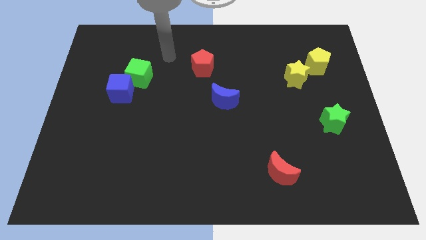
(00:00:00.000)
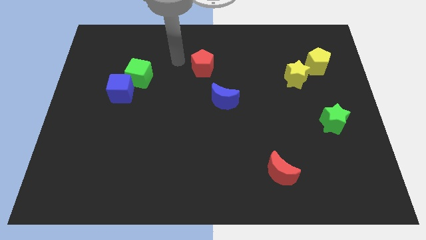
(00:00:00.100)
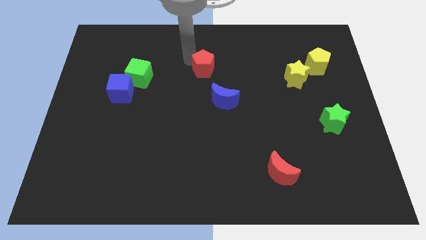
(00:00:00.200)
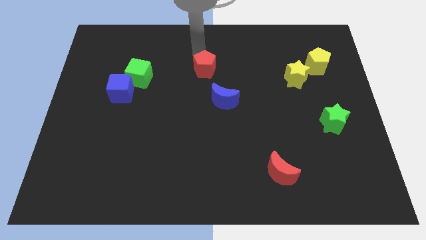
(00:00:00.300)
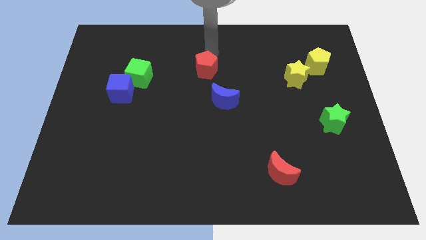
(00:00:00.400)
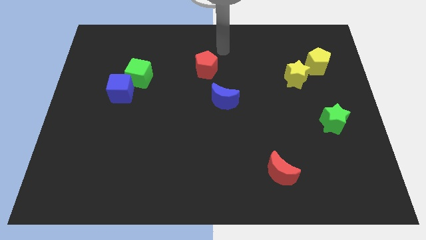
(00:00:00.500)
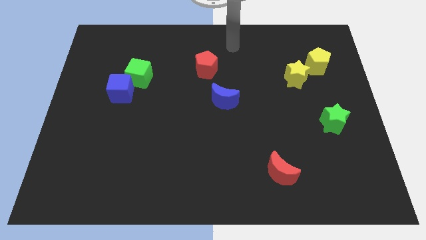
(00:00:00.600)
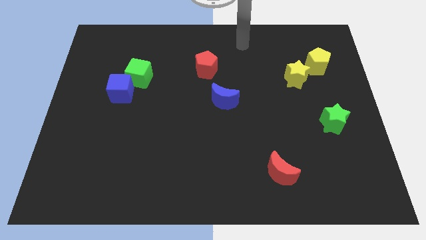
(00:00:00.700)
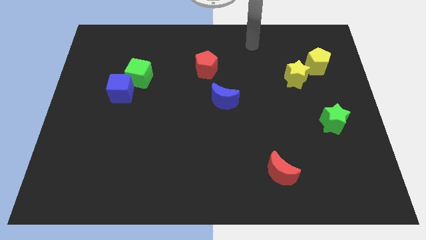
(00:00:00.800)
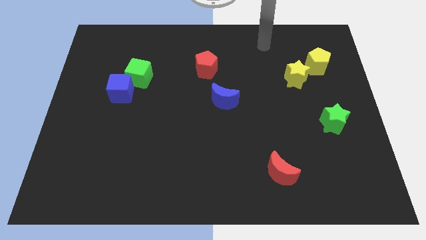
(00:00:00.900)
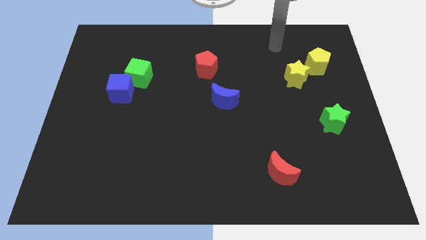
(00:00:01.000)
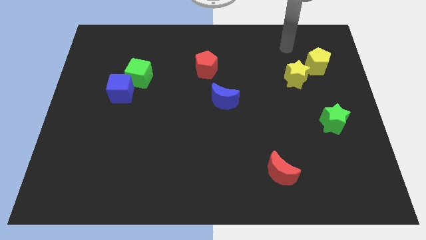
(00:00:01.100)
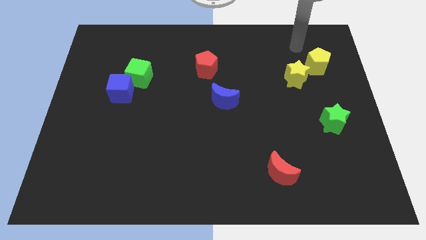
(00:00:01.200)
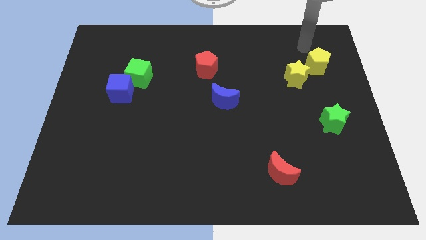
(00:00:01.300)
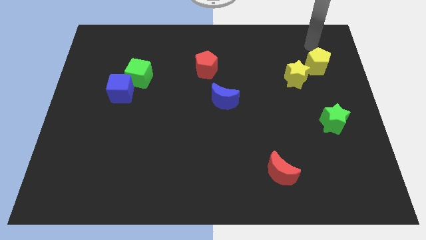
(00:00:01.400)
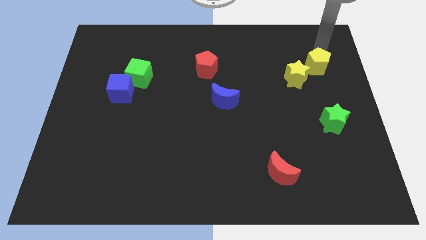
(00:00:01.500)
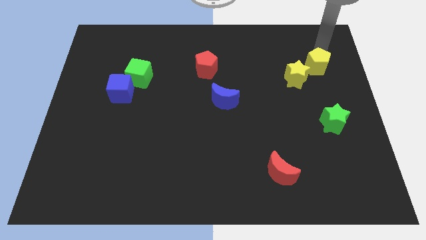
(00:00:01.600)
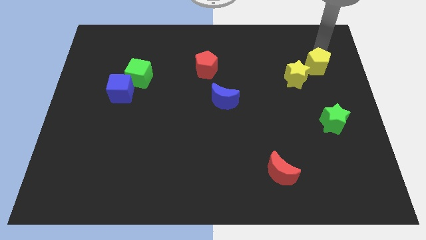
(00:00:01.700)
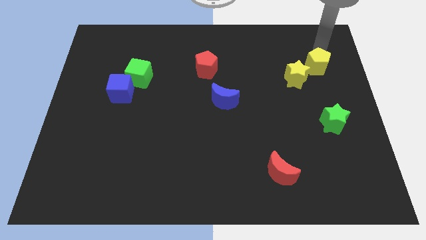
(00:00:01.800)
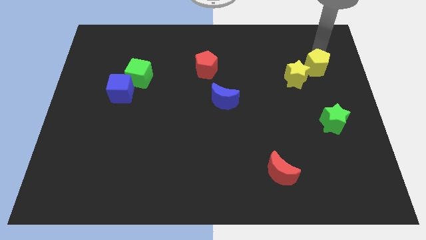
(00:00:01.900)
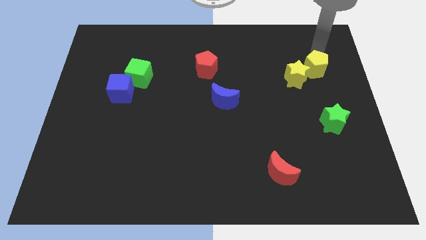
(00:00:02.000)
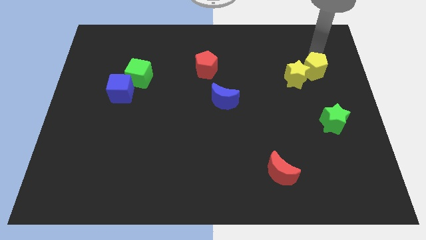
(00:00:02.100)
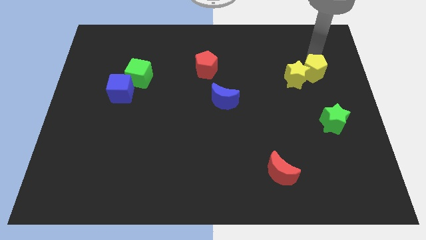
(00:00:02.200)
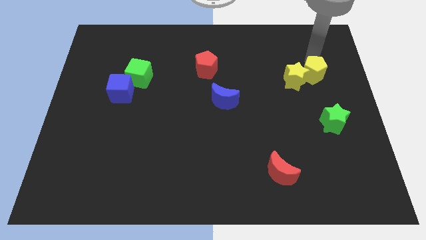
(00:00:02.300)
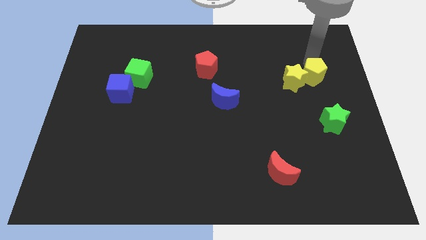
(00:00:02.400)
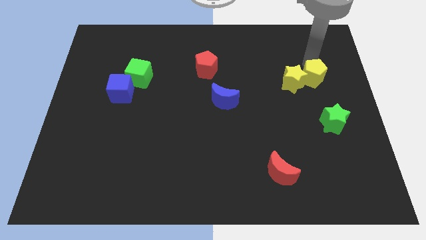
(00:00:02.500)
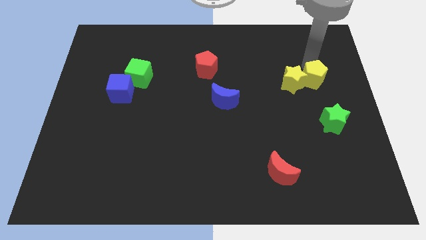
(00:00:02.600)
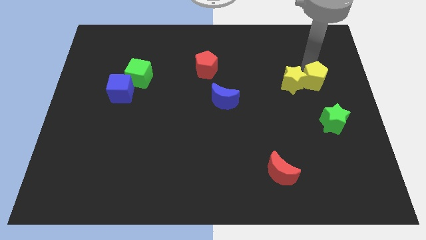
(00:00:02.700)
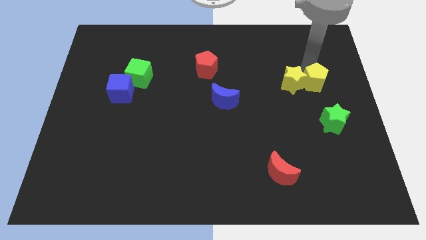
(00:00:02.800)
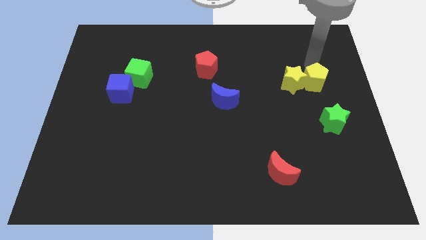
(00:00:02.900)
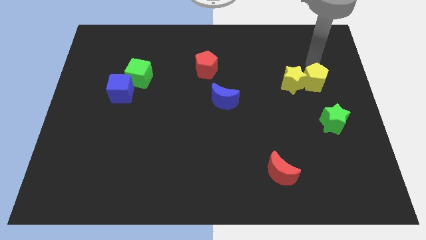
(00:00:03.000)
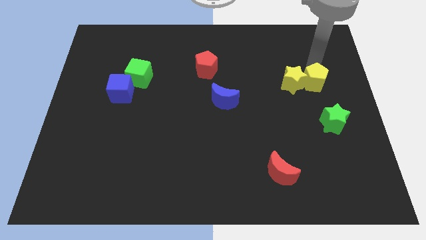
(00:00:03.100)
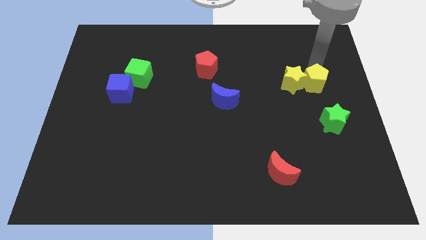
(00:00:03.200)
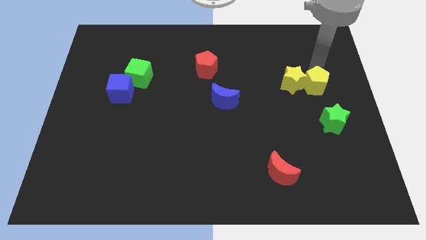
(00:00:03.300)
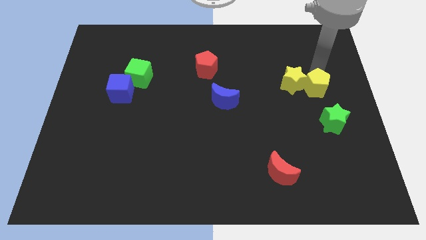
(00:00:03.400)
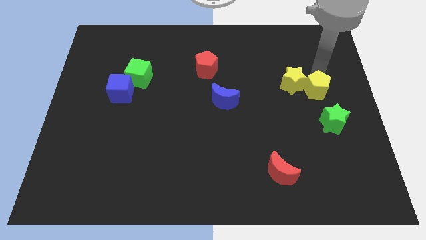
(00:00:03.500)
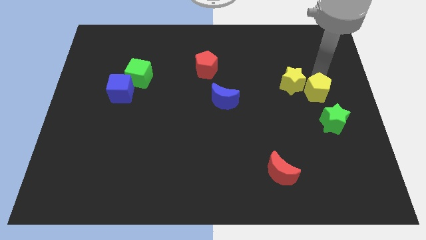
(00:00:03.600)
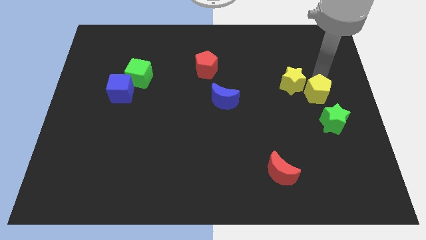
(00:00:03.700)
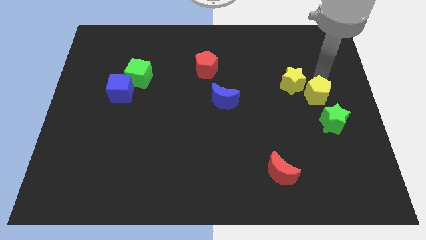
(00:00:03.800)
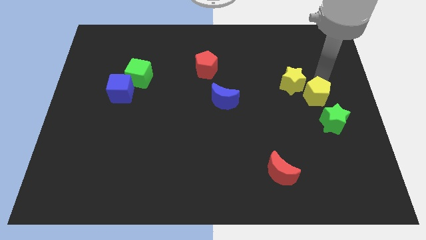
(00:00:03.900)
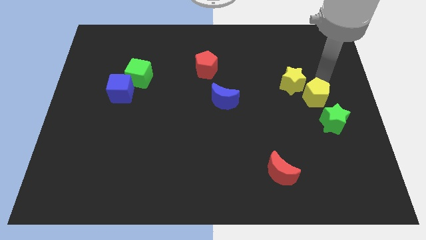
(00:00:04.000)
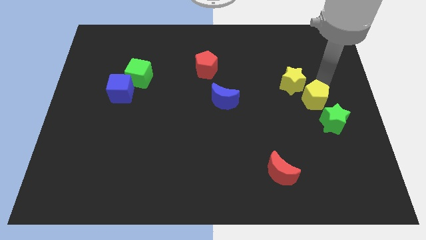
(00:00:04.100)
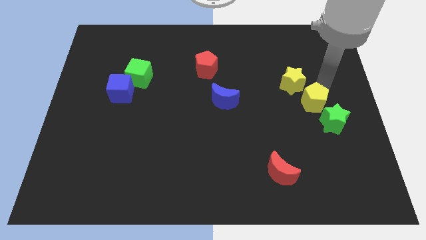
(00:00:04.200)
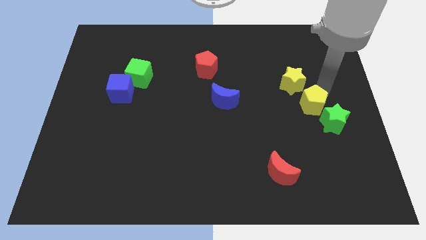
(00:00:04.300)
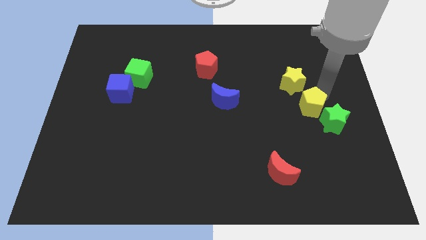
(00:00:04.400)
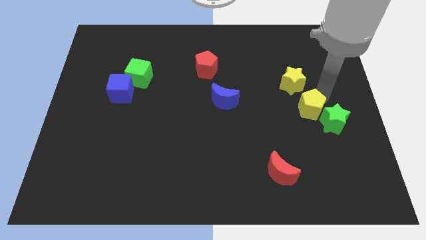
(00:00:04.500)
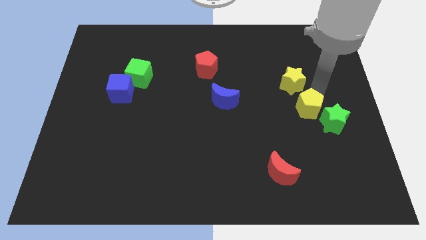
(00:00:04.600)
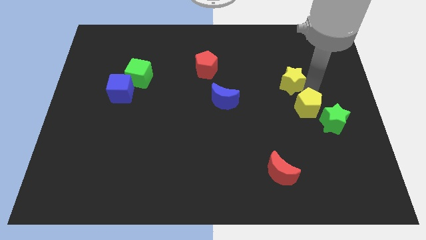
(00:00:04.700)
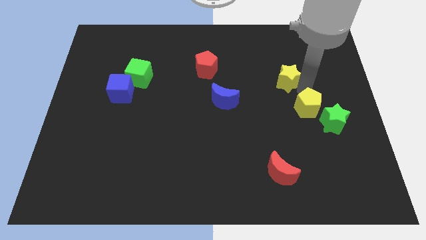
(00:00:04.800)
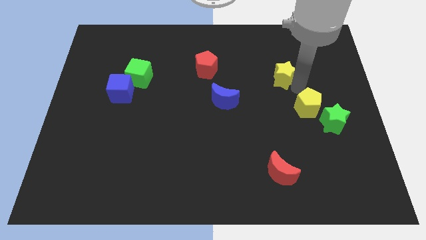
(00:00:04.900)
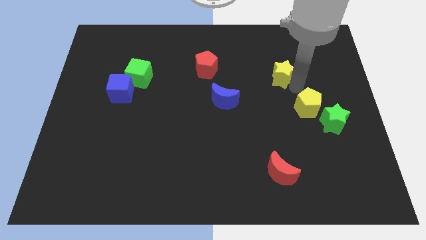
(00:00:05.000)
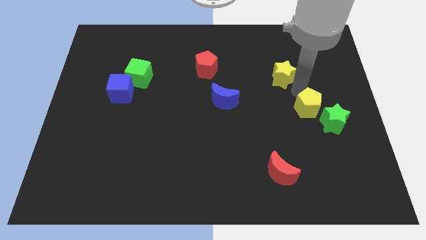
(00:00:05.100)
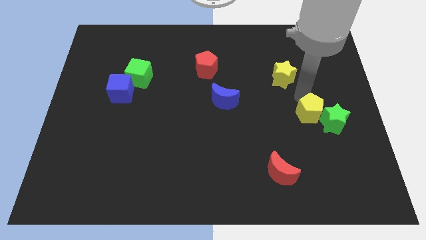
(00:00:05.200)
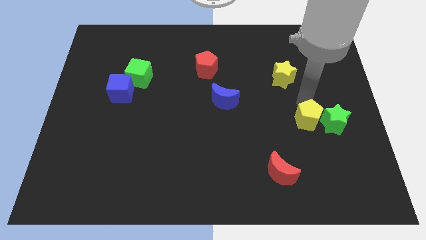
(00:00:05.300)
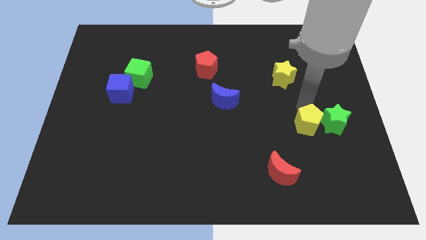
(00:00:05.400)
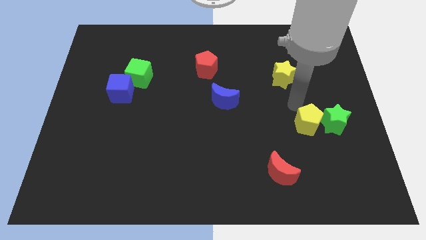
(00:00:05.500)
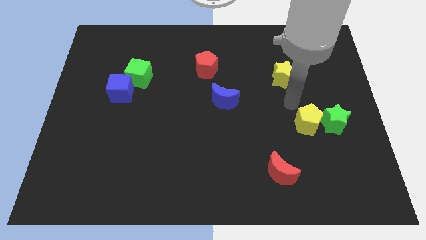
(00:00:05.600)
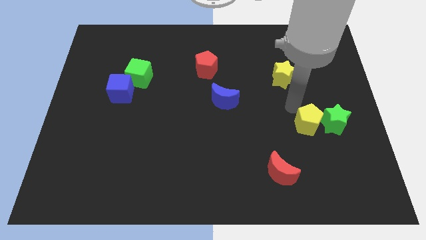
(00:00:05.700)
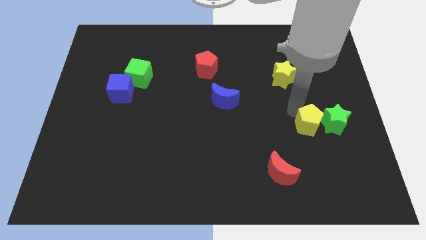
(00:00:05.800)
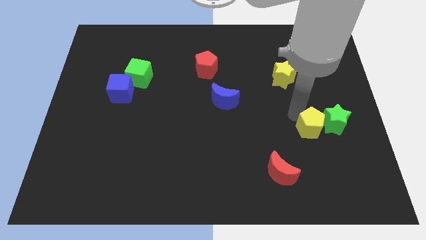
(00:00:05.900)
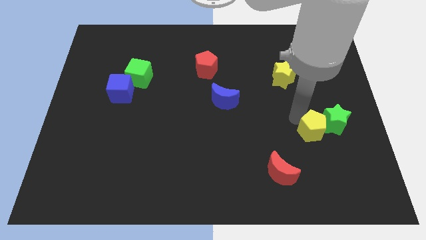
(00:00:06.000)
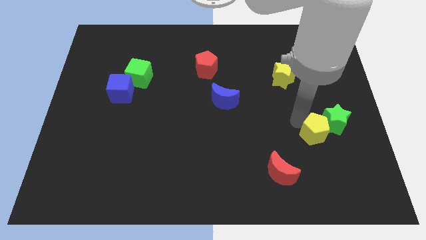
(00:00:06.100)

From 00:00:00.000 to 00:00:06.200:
slide the yellow pentagon downwards

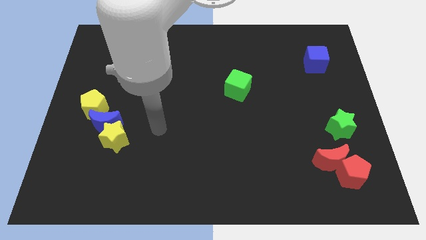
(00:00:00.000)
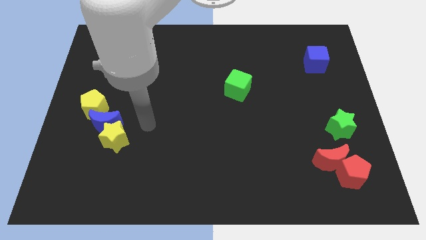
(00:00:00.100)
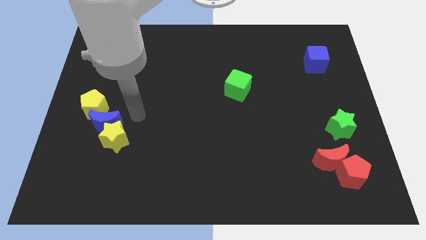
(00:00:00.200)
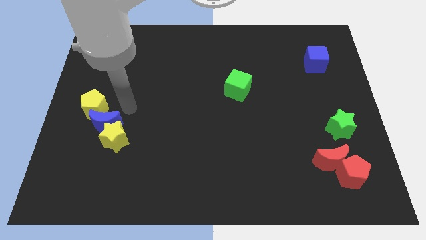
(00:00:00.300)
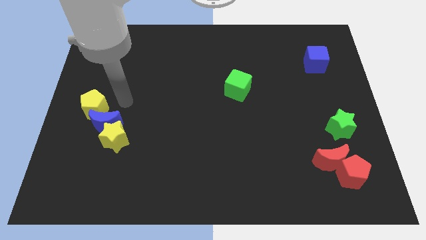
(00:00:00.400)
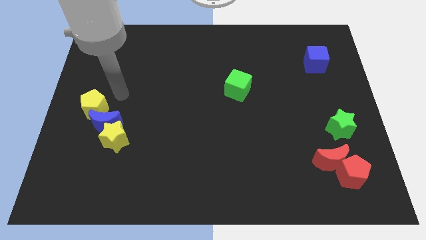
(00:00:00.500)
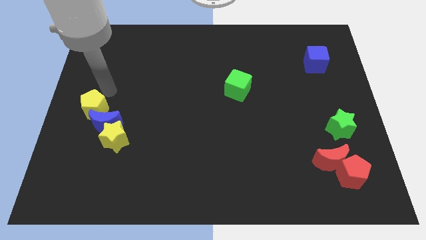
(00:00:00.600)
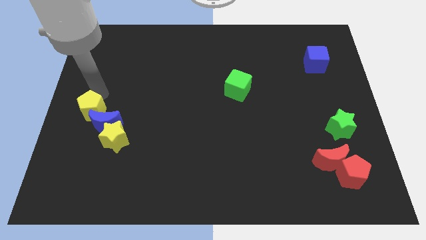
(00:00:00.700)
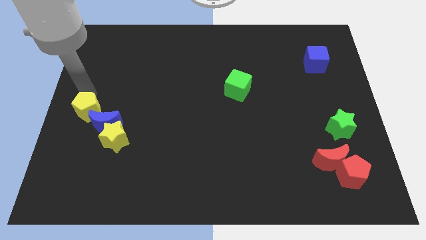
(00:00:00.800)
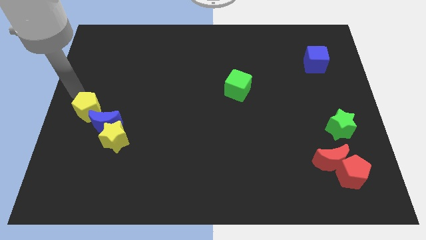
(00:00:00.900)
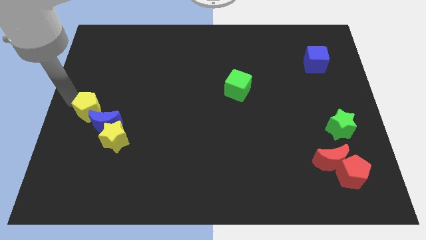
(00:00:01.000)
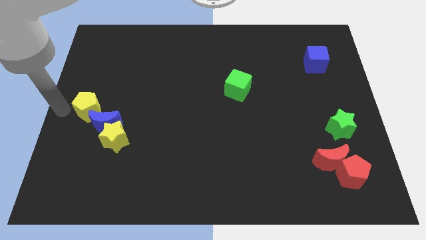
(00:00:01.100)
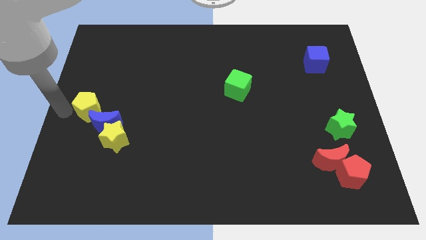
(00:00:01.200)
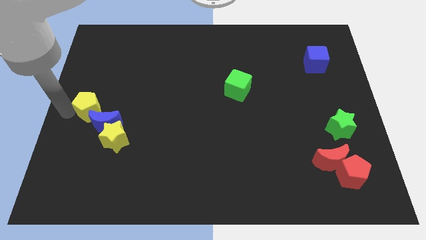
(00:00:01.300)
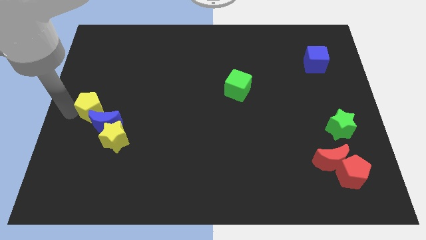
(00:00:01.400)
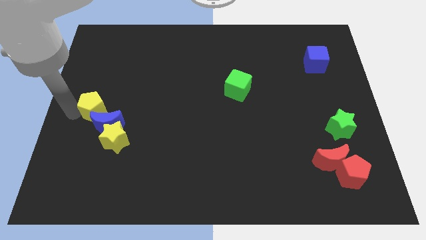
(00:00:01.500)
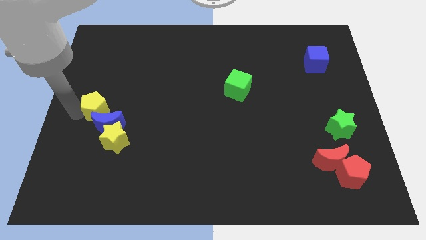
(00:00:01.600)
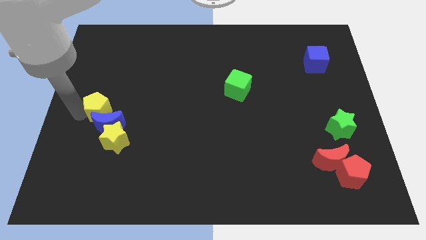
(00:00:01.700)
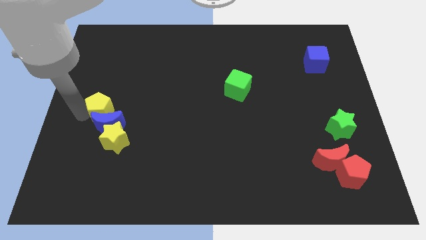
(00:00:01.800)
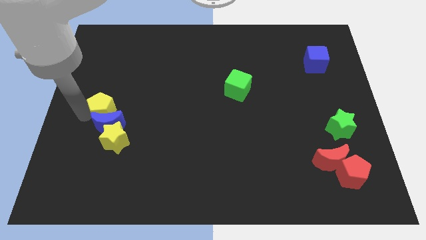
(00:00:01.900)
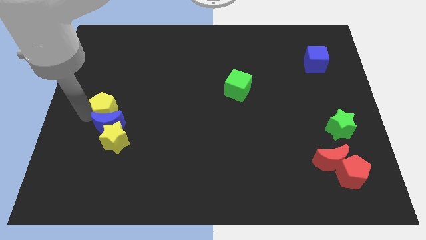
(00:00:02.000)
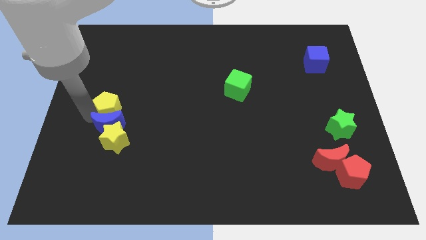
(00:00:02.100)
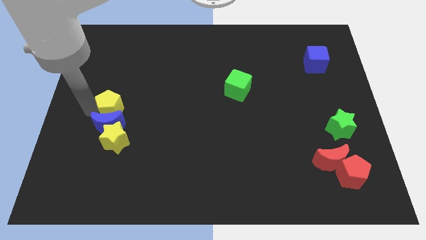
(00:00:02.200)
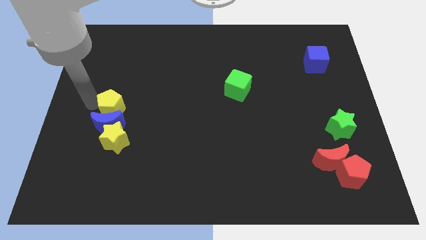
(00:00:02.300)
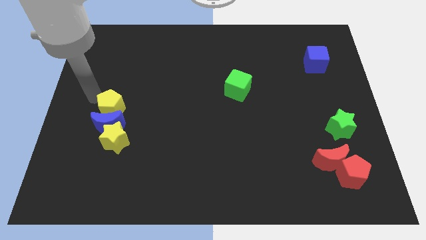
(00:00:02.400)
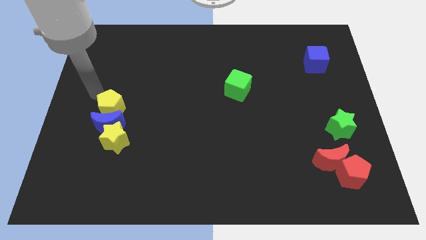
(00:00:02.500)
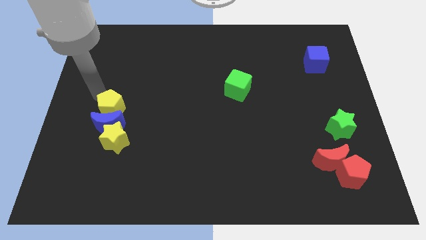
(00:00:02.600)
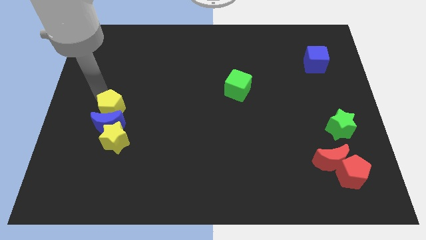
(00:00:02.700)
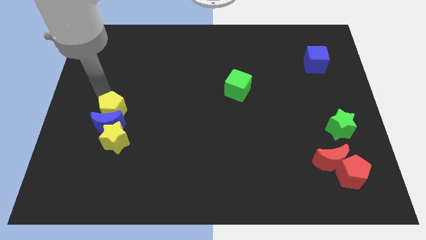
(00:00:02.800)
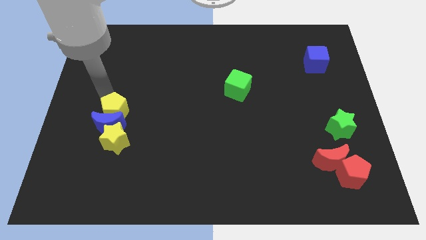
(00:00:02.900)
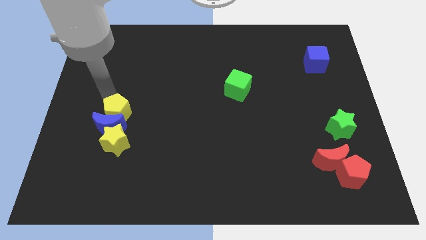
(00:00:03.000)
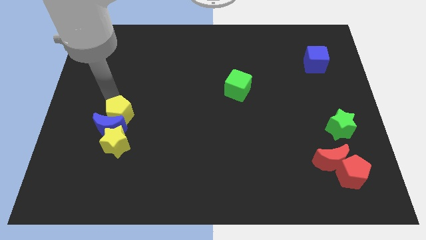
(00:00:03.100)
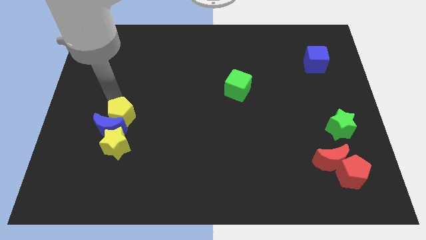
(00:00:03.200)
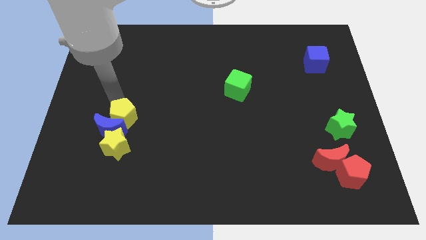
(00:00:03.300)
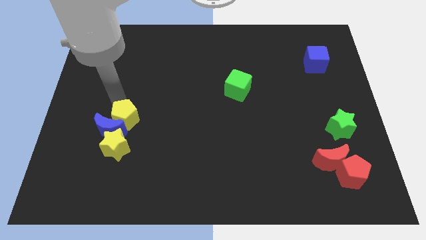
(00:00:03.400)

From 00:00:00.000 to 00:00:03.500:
push the yellow pentagon downwards and then to the right somewhat
